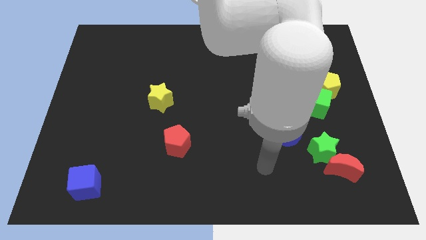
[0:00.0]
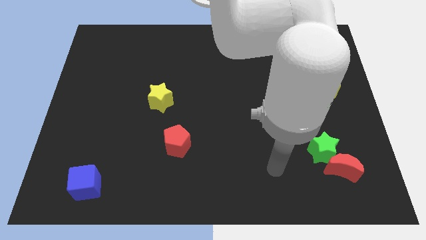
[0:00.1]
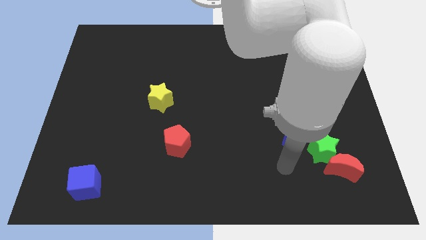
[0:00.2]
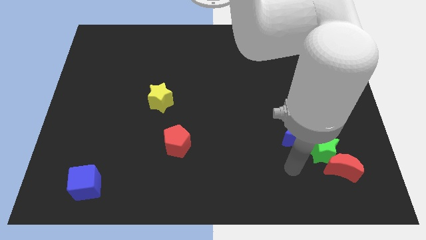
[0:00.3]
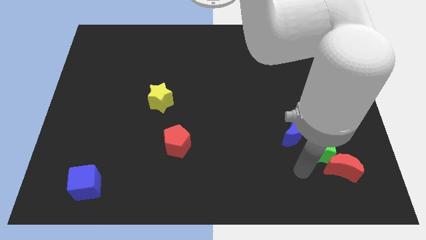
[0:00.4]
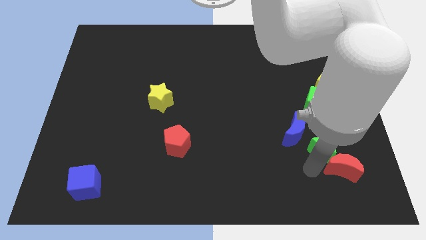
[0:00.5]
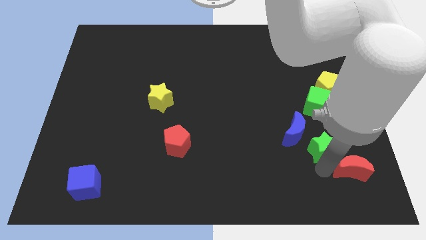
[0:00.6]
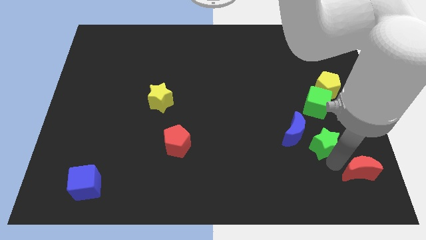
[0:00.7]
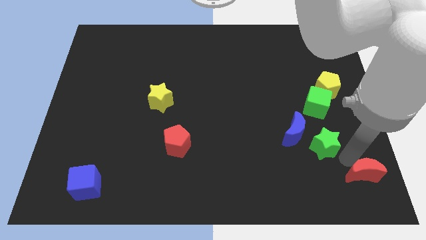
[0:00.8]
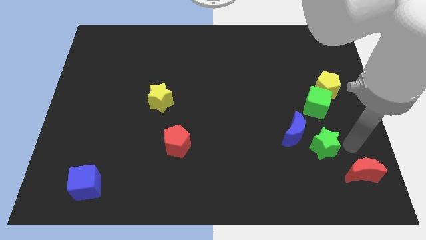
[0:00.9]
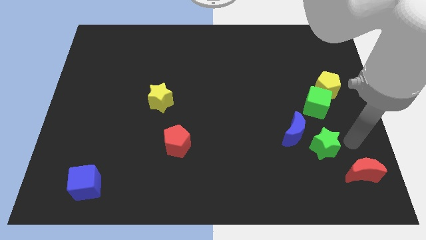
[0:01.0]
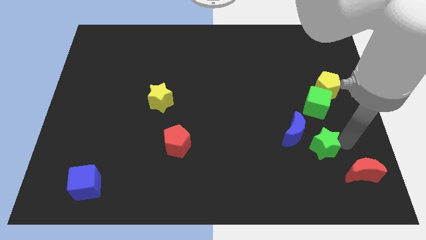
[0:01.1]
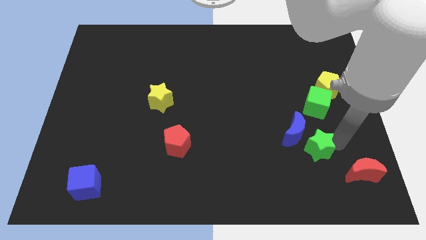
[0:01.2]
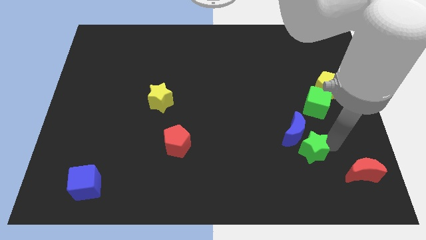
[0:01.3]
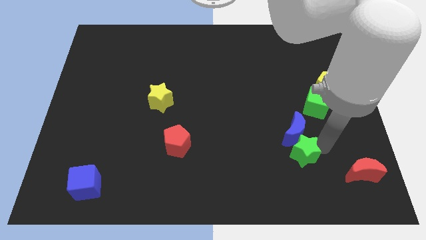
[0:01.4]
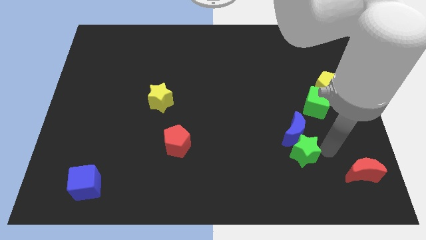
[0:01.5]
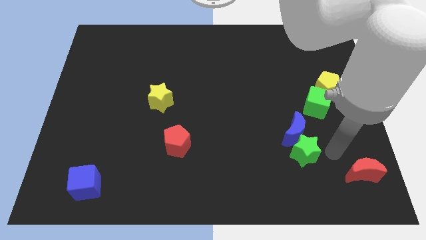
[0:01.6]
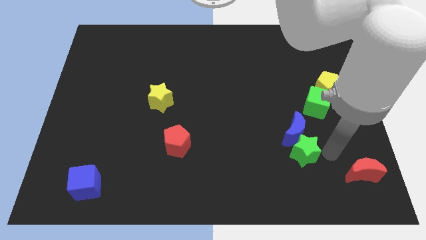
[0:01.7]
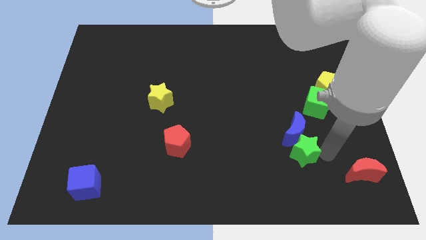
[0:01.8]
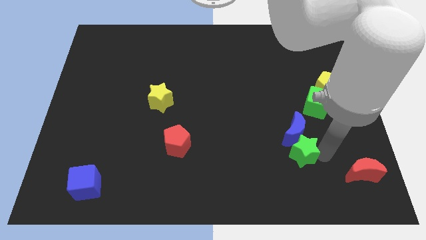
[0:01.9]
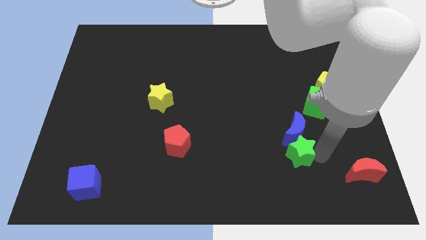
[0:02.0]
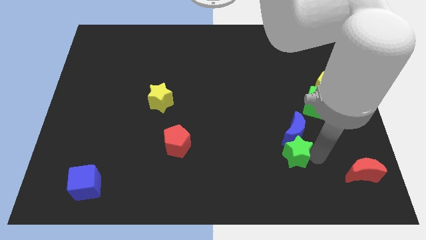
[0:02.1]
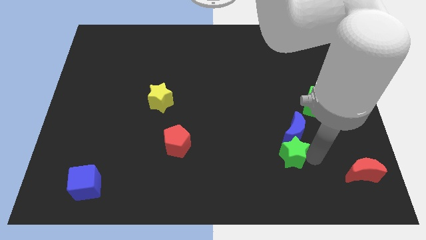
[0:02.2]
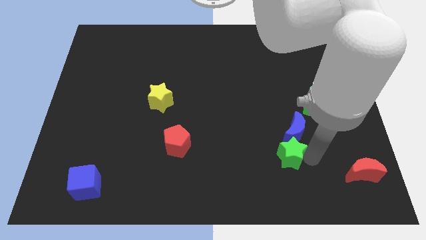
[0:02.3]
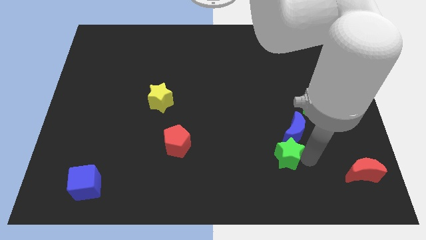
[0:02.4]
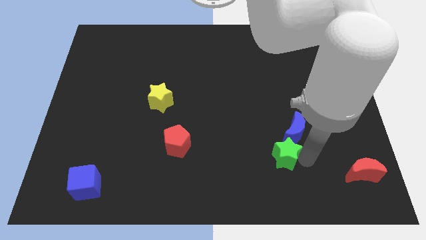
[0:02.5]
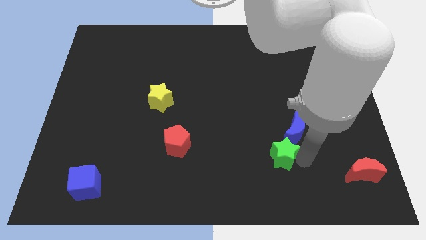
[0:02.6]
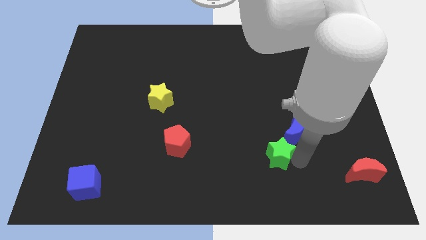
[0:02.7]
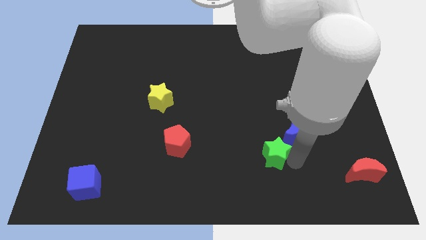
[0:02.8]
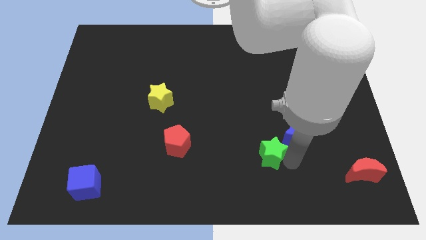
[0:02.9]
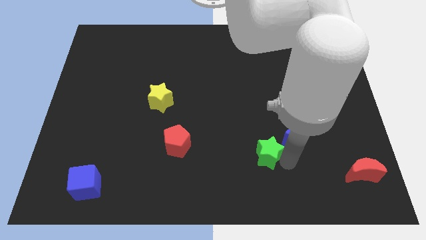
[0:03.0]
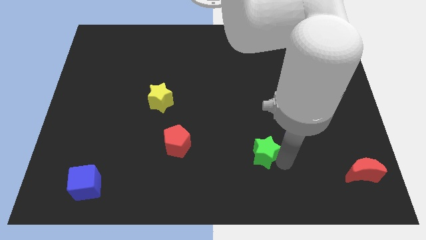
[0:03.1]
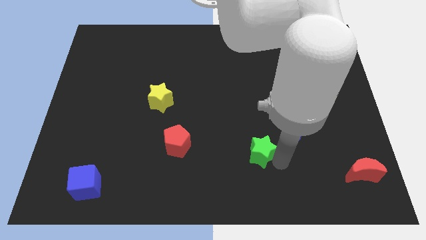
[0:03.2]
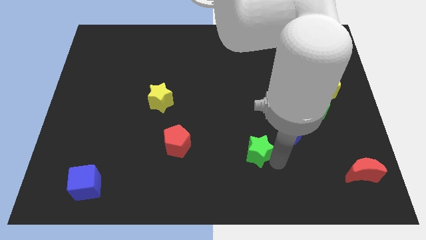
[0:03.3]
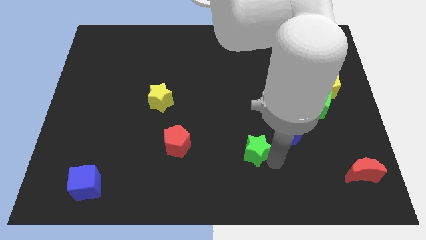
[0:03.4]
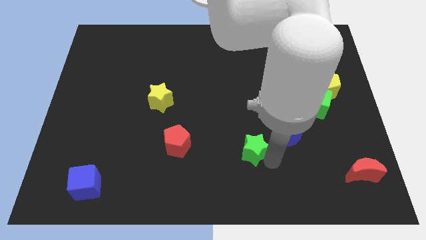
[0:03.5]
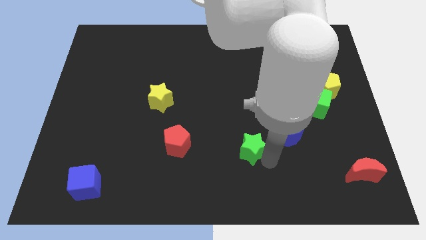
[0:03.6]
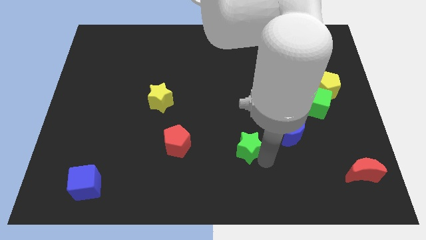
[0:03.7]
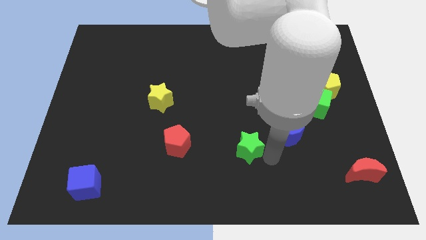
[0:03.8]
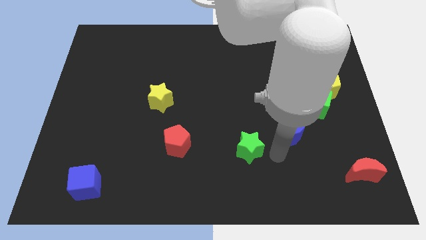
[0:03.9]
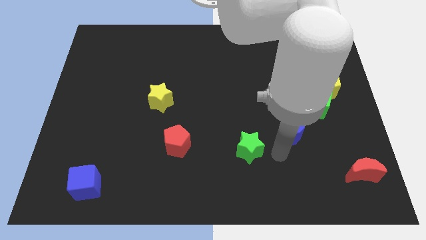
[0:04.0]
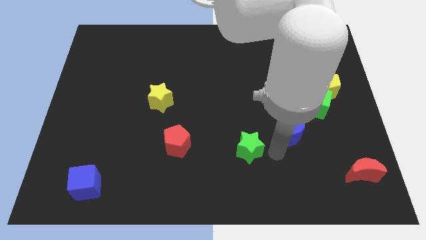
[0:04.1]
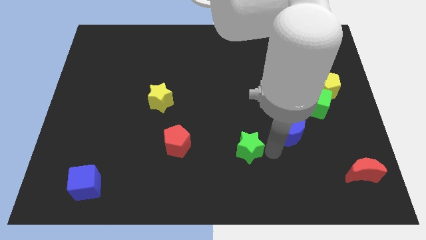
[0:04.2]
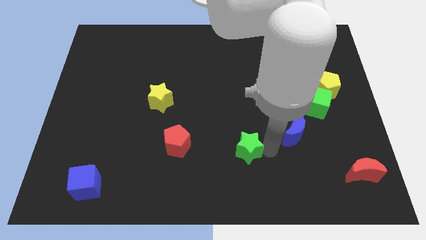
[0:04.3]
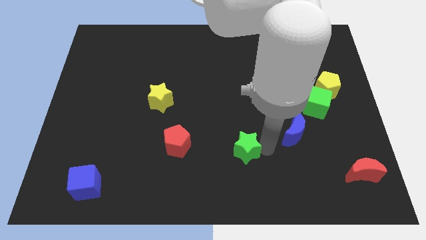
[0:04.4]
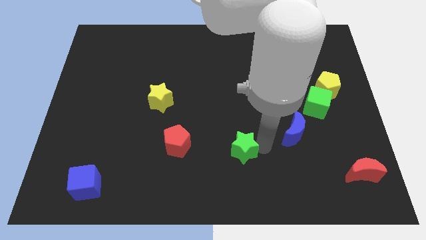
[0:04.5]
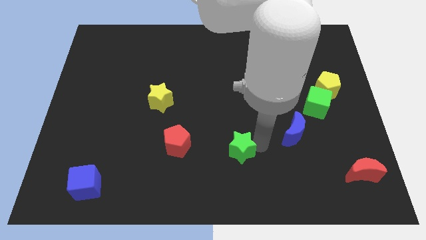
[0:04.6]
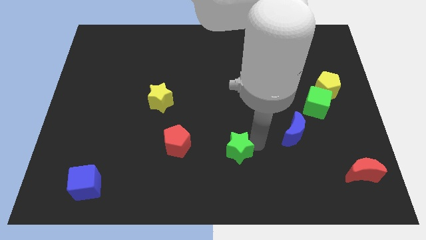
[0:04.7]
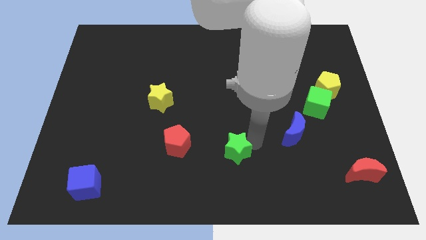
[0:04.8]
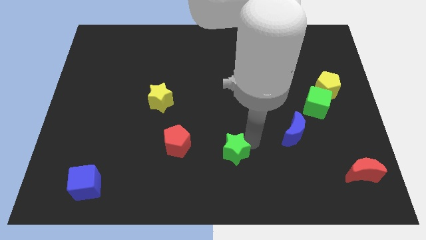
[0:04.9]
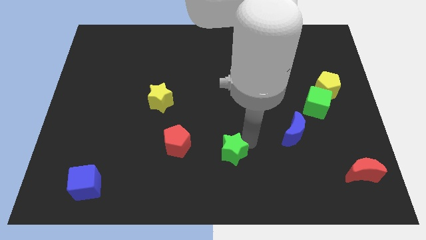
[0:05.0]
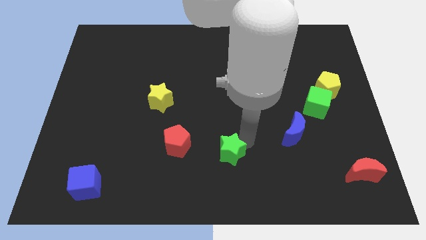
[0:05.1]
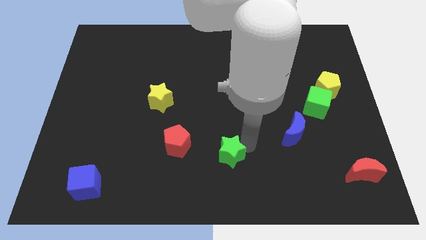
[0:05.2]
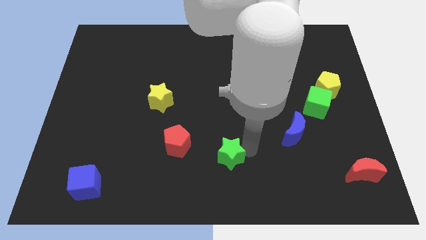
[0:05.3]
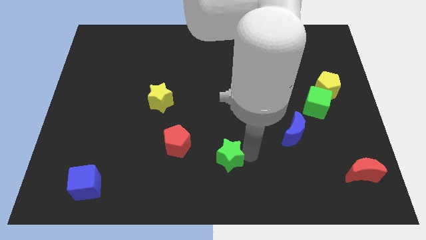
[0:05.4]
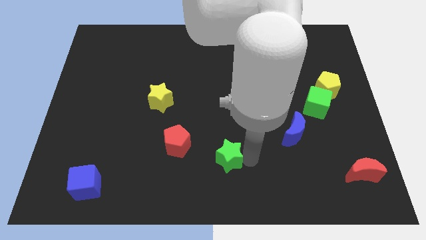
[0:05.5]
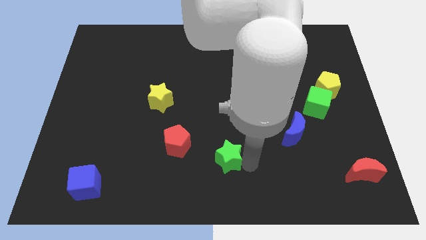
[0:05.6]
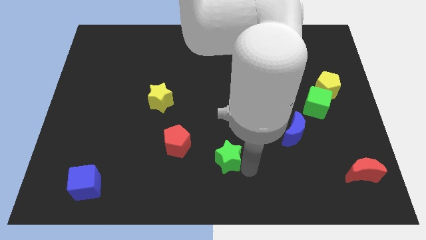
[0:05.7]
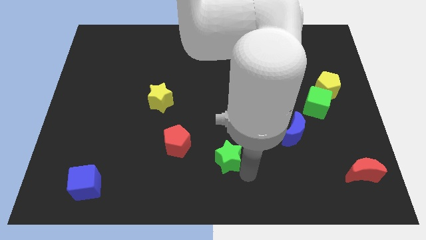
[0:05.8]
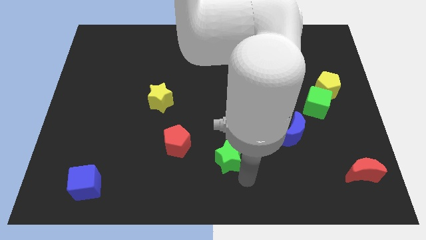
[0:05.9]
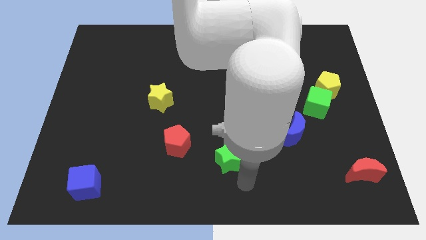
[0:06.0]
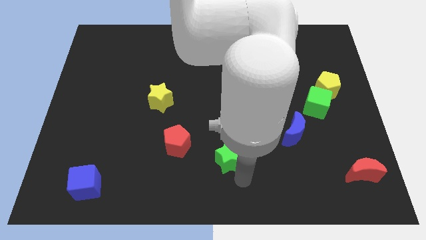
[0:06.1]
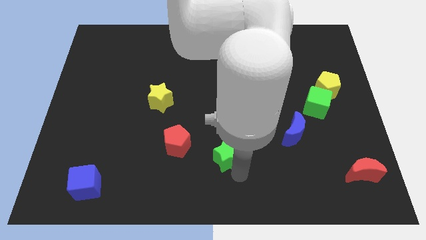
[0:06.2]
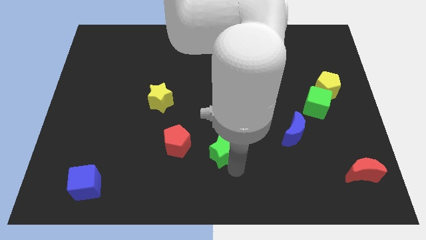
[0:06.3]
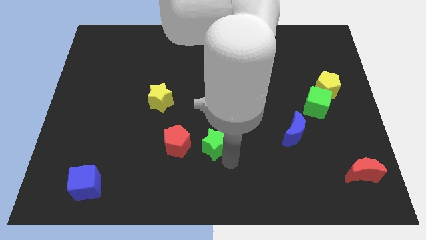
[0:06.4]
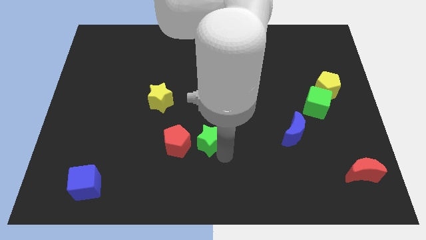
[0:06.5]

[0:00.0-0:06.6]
slide the green star to the top right side of the red pentagon

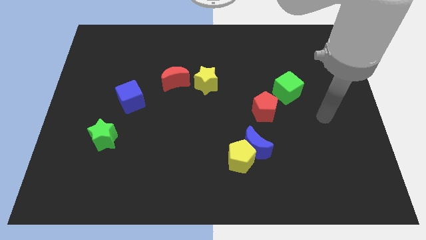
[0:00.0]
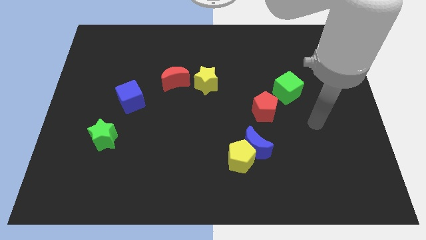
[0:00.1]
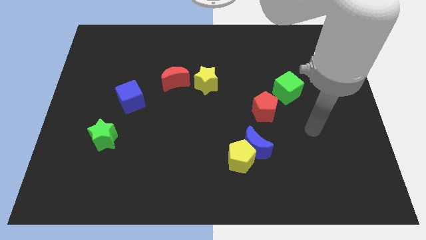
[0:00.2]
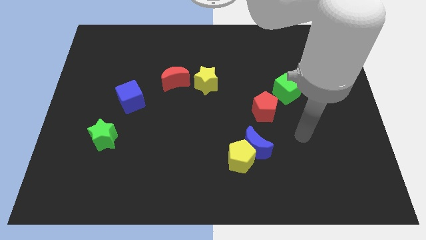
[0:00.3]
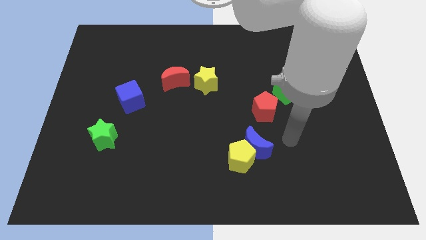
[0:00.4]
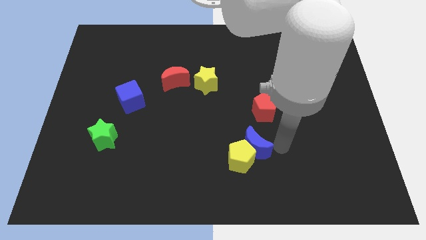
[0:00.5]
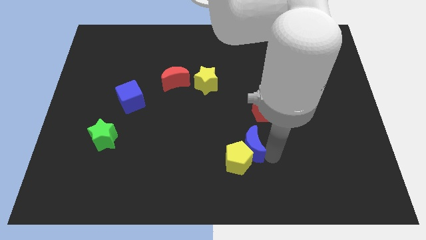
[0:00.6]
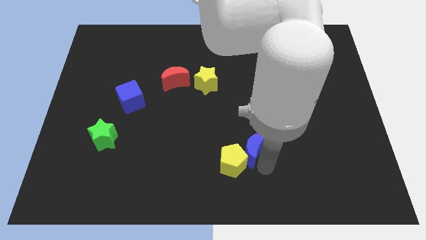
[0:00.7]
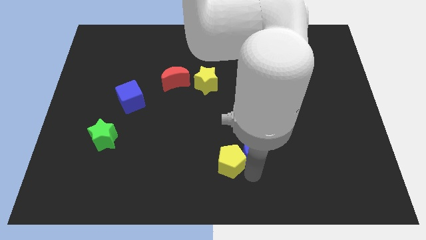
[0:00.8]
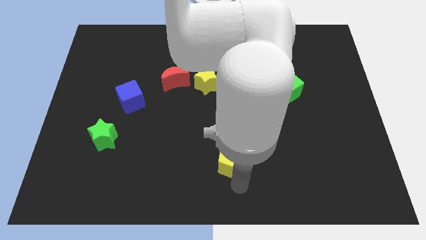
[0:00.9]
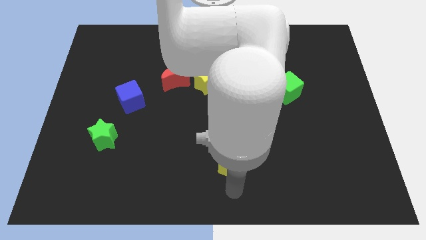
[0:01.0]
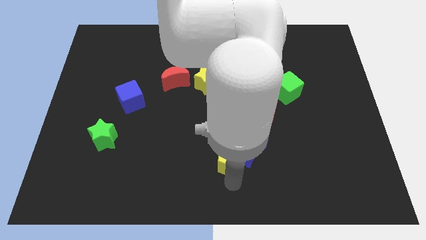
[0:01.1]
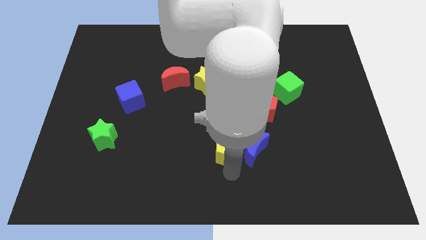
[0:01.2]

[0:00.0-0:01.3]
put the yellow pentagon to the top left of the blue moon
